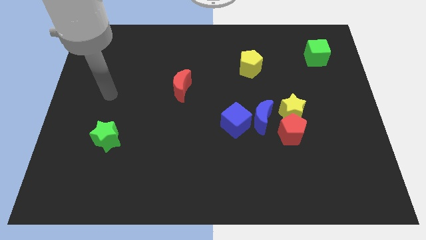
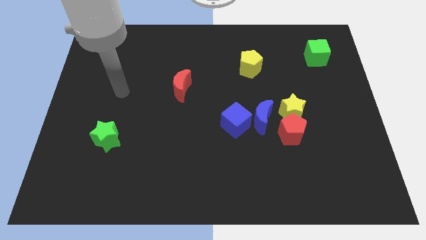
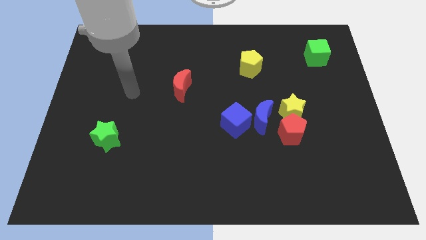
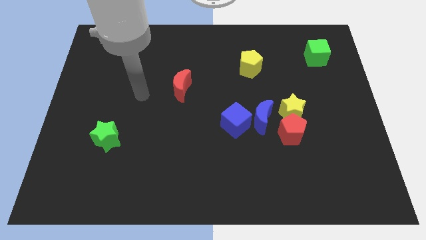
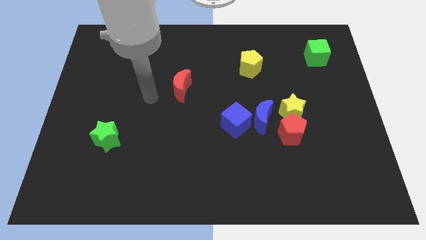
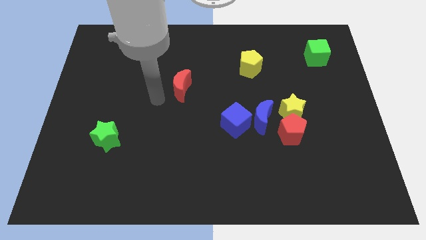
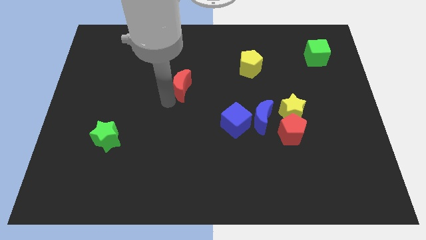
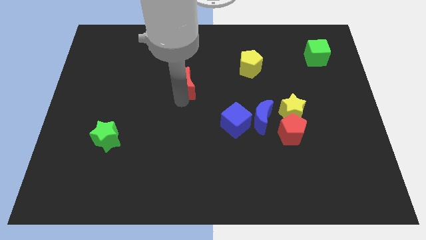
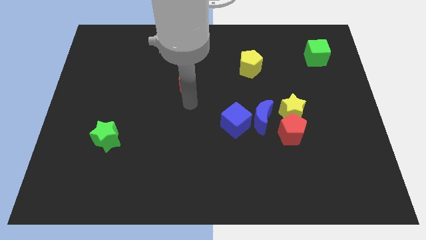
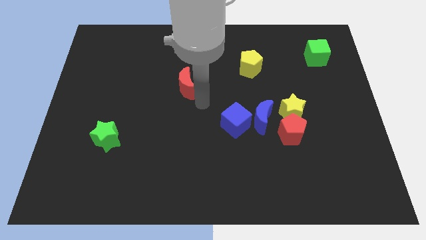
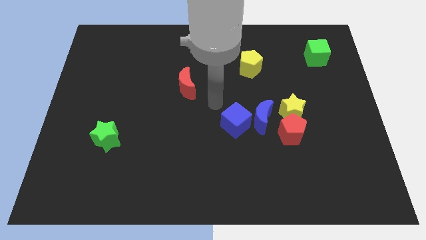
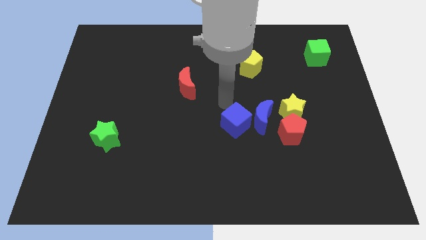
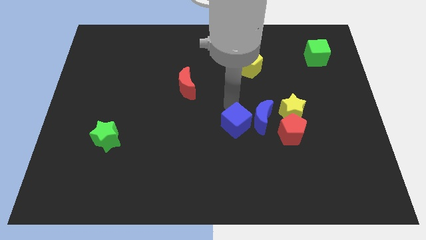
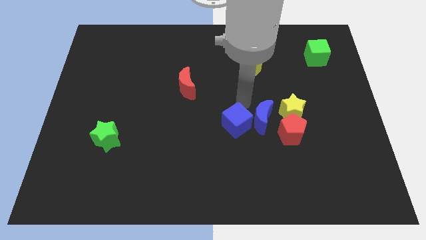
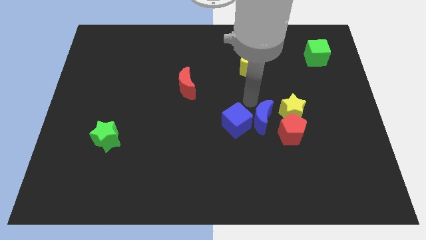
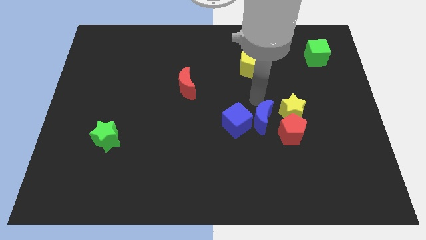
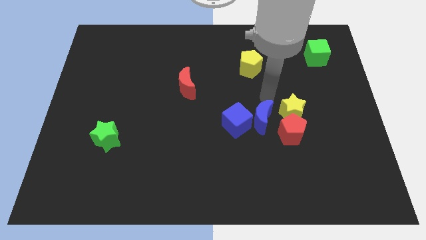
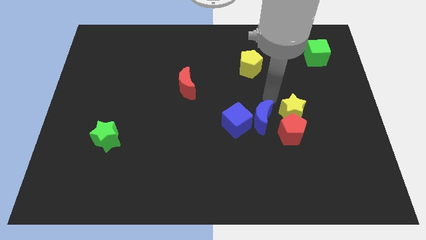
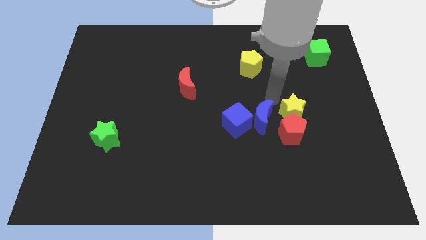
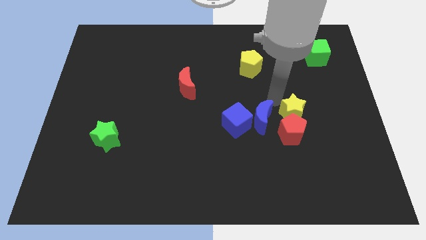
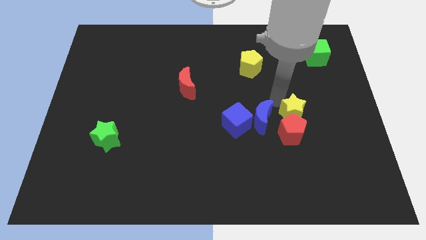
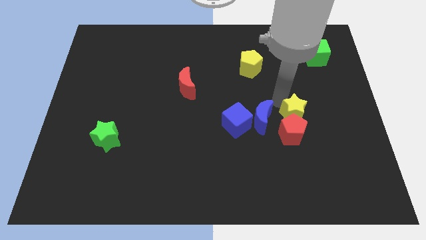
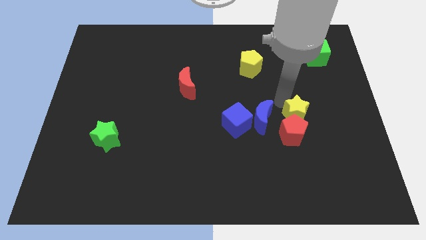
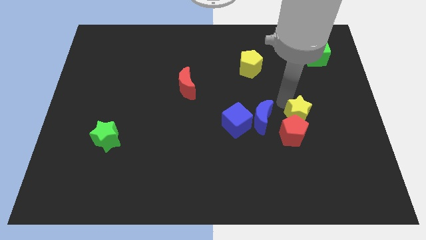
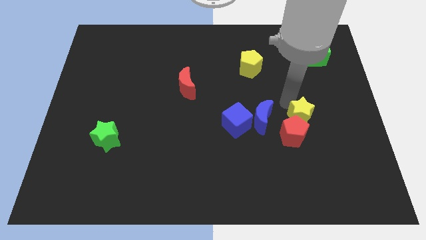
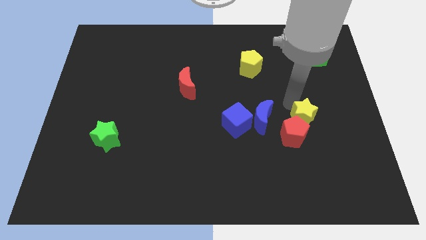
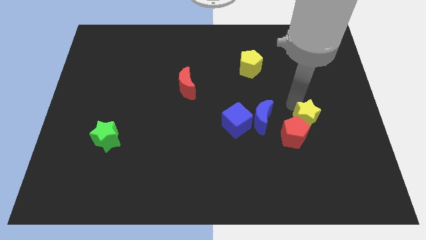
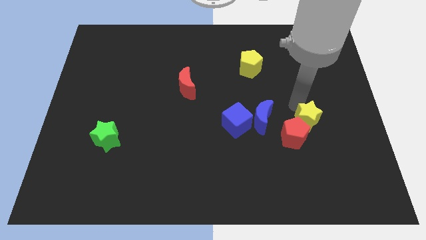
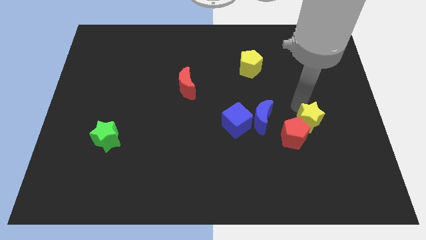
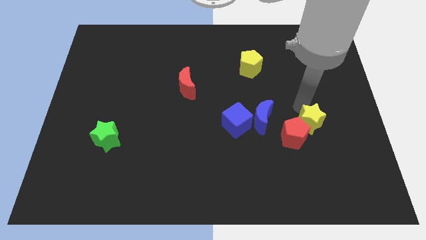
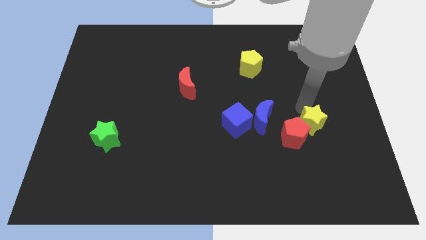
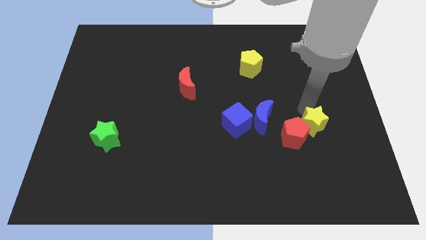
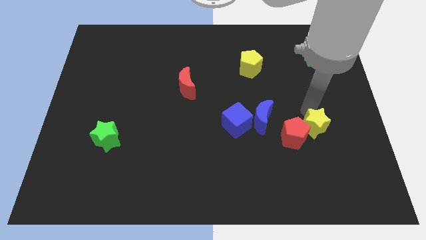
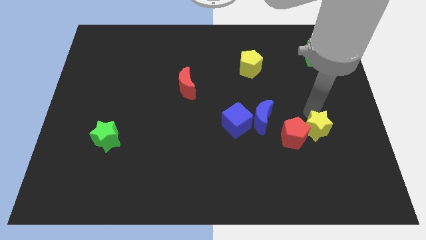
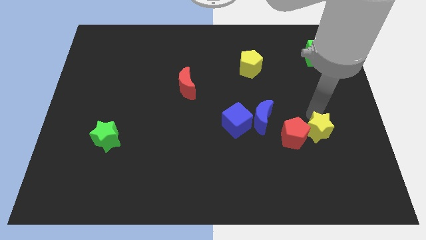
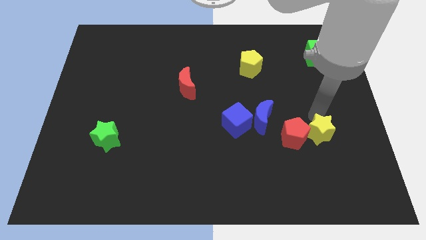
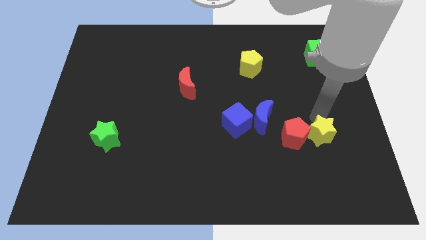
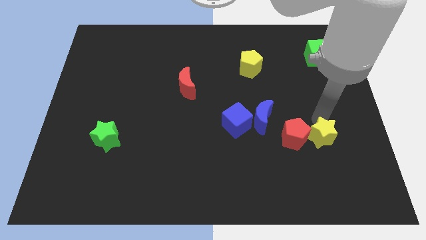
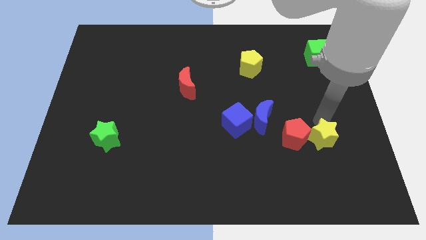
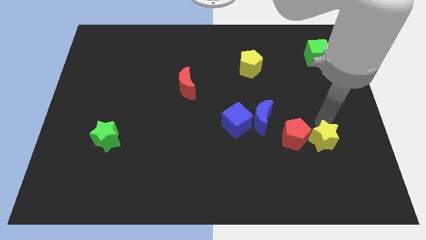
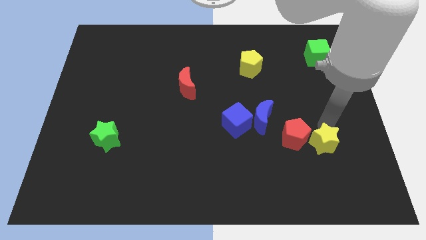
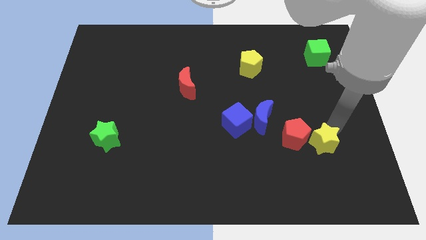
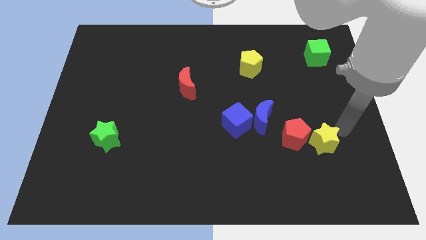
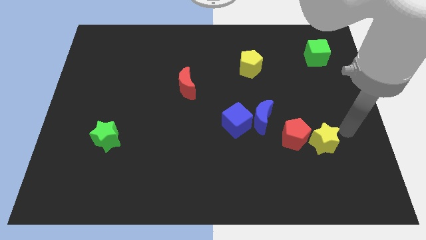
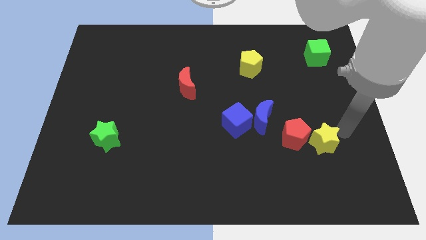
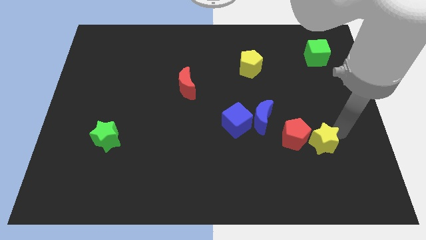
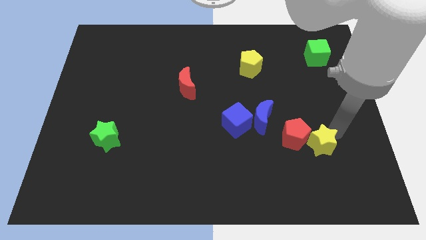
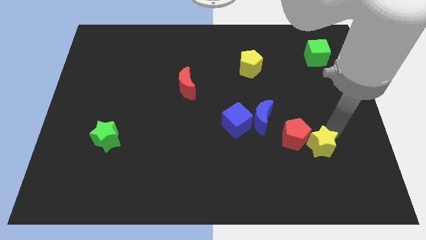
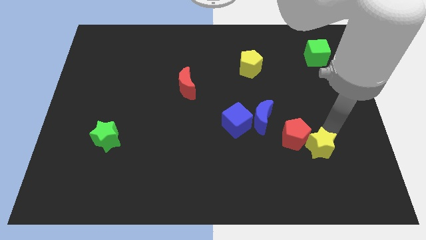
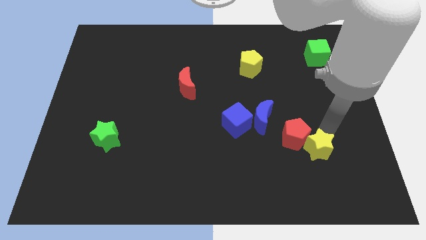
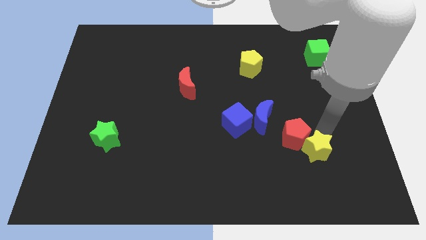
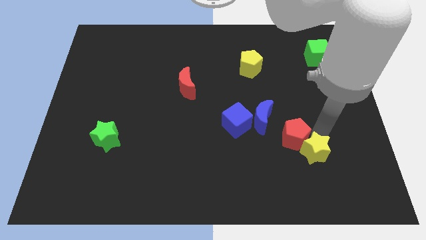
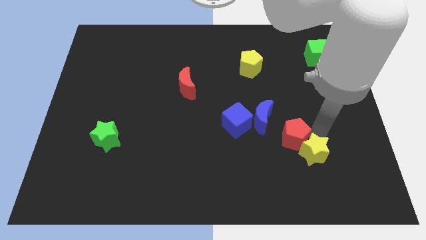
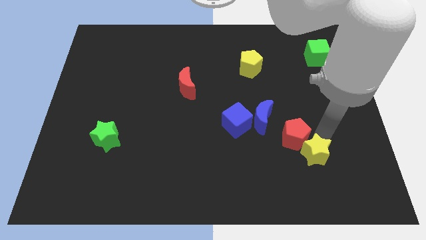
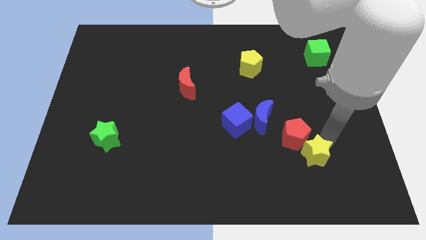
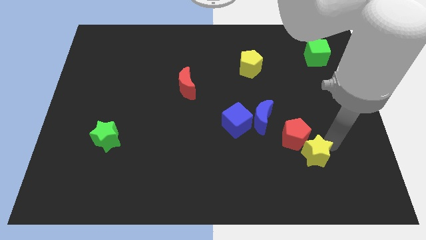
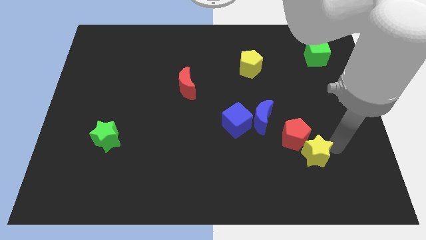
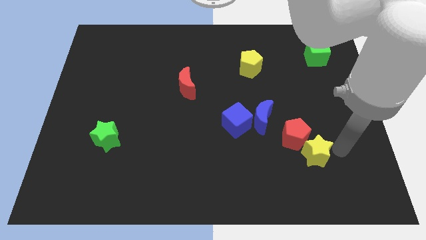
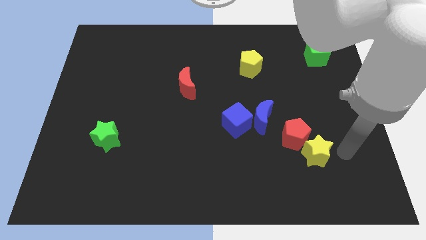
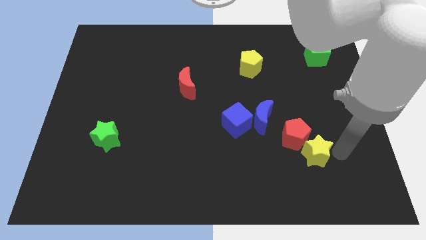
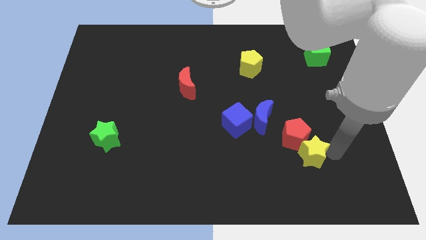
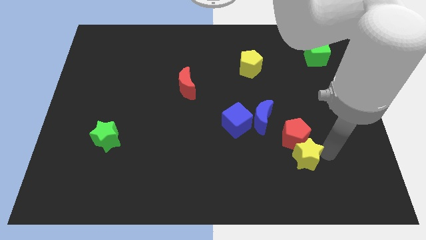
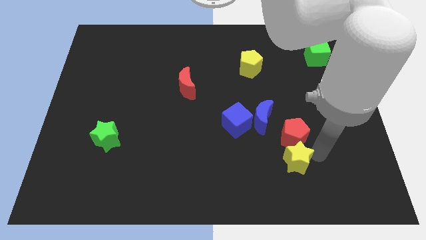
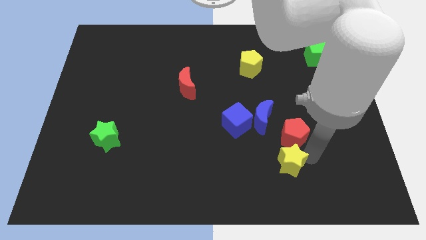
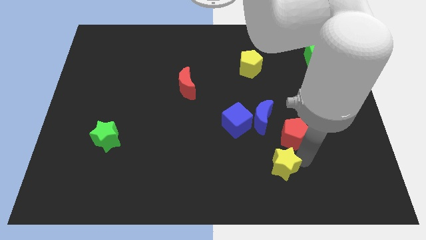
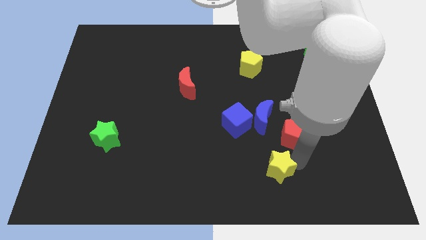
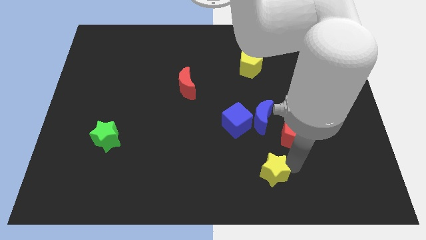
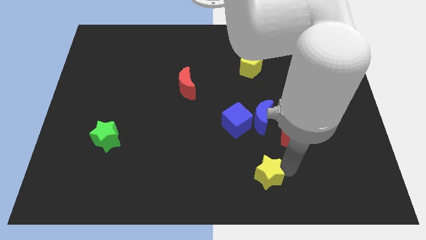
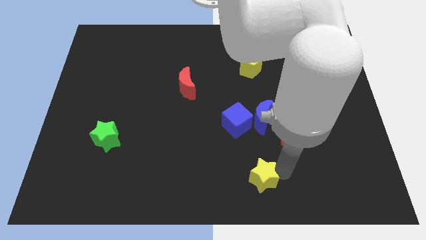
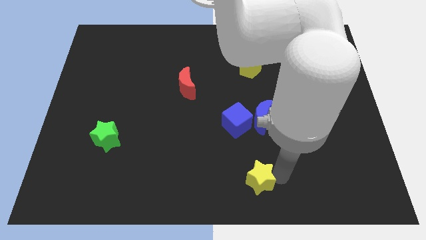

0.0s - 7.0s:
put the yellow star below the blue cube

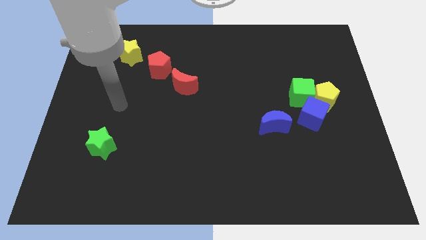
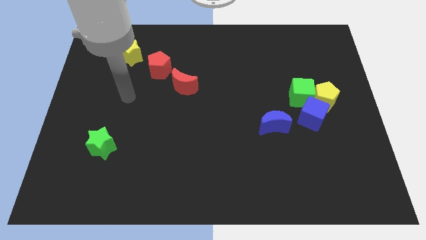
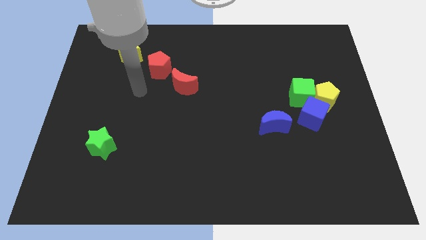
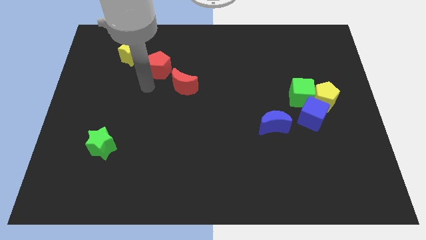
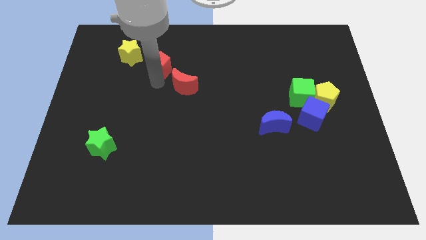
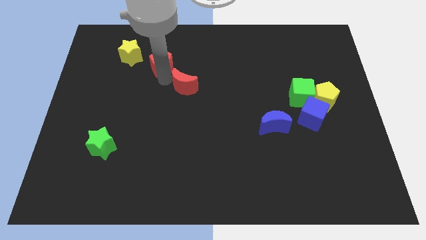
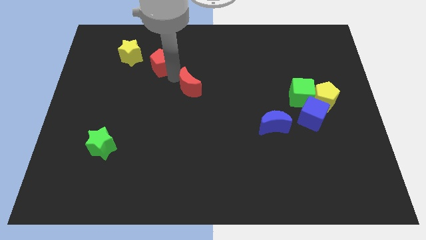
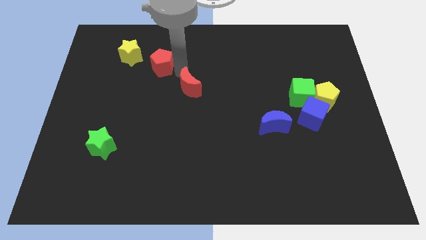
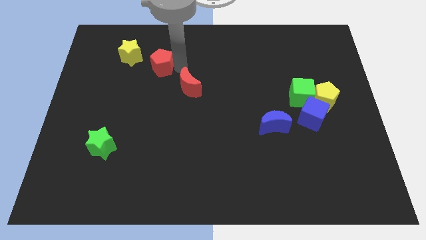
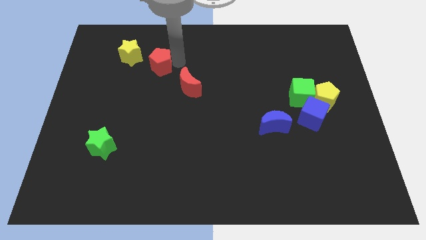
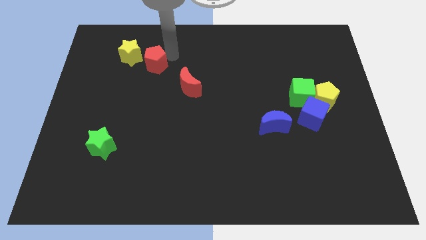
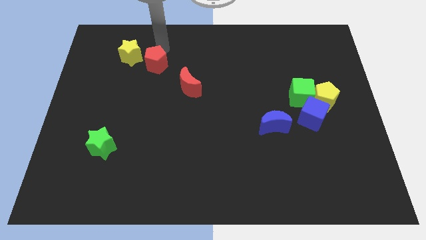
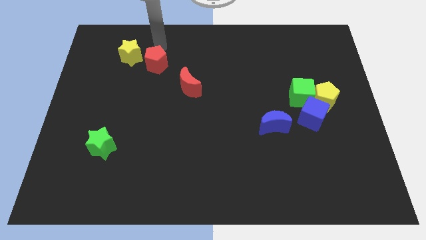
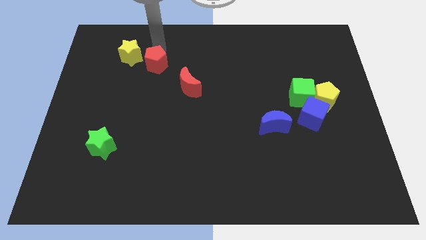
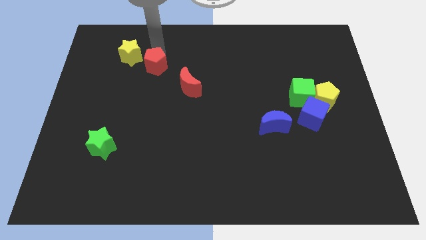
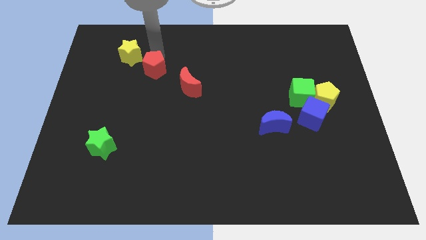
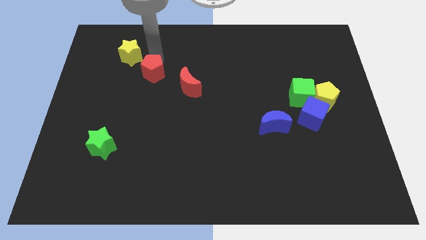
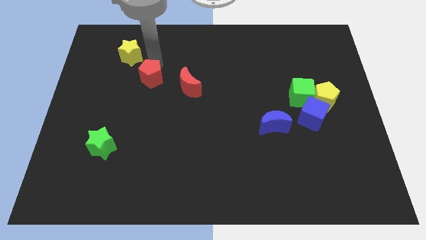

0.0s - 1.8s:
push the red pentagon to the left of the red moon
